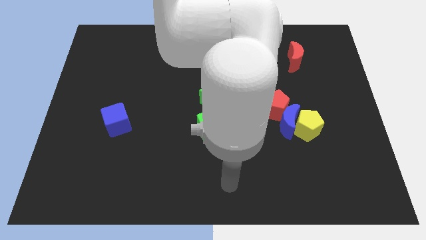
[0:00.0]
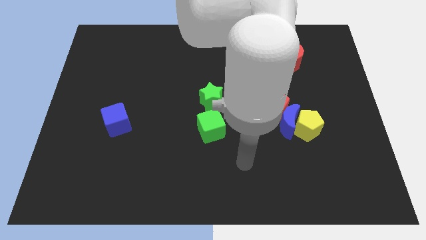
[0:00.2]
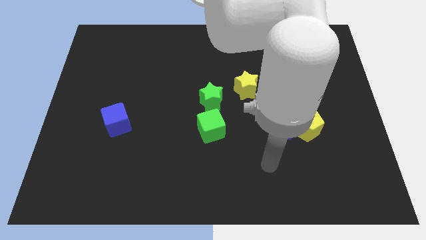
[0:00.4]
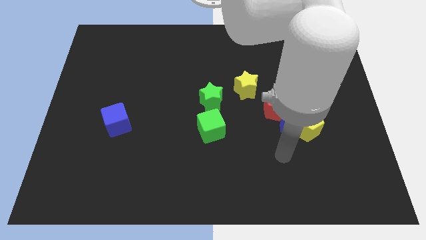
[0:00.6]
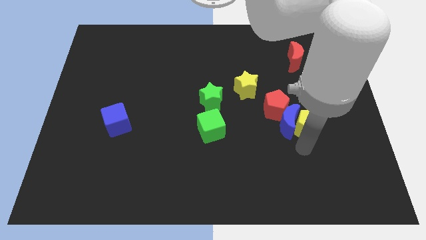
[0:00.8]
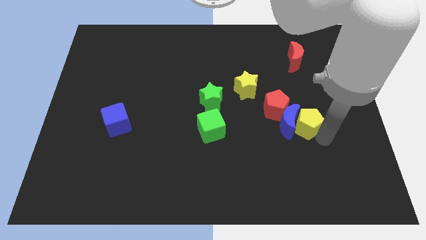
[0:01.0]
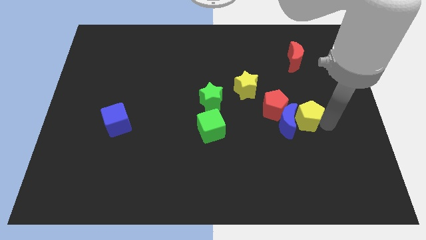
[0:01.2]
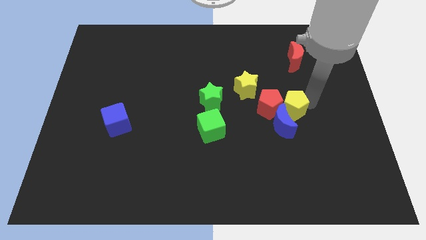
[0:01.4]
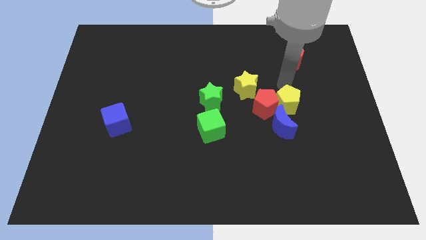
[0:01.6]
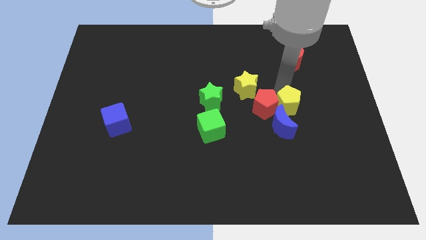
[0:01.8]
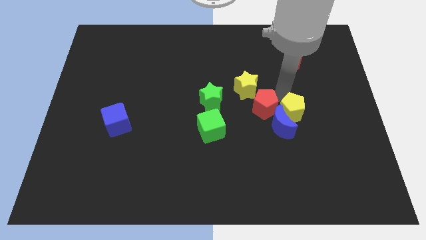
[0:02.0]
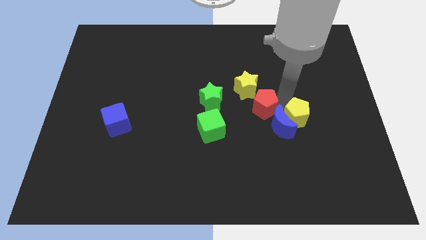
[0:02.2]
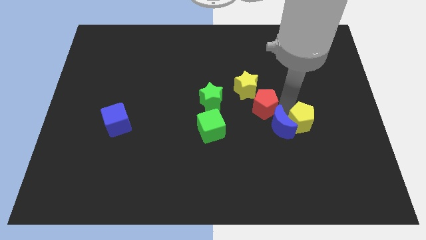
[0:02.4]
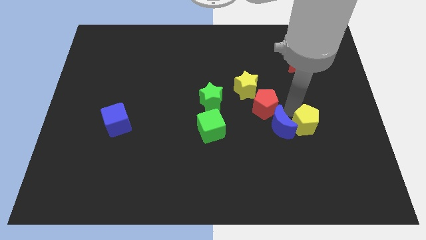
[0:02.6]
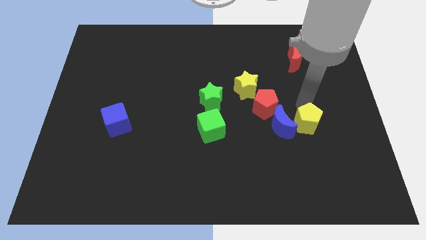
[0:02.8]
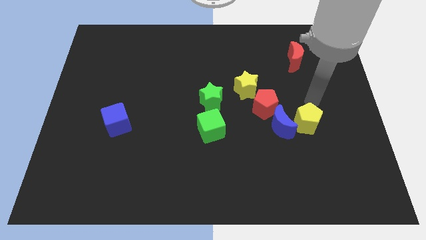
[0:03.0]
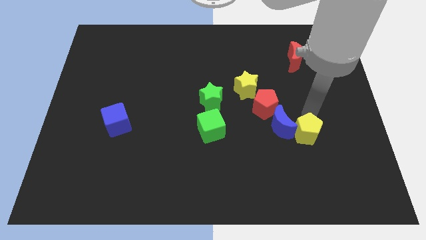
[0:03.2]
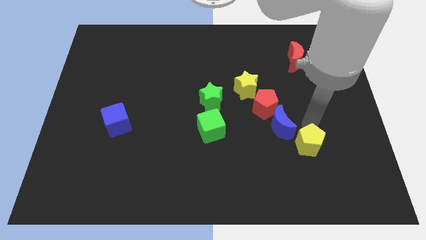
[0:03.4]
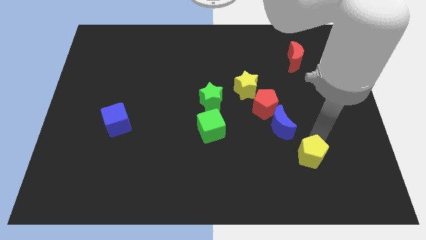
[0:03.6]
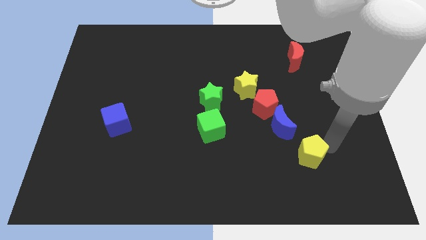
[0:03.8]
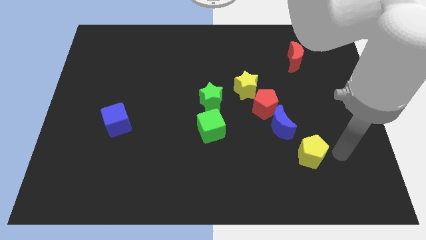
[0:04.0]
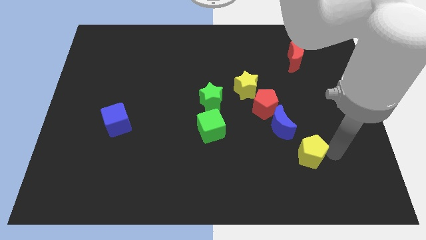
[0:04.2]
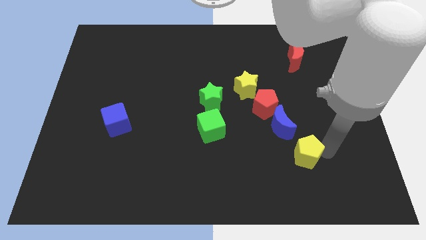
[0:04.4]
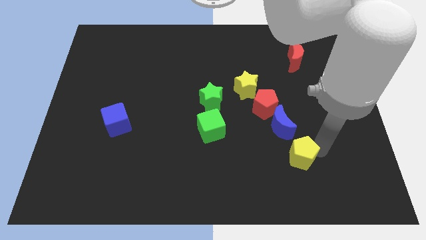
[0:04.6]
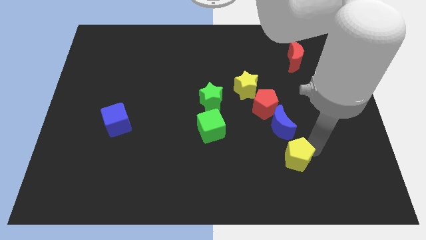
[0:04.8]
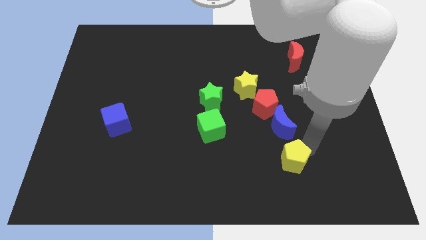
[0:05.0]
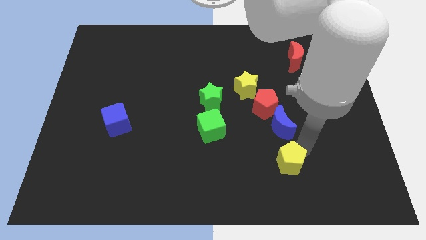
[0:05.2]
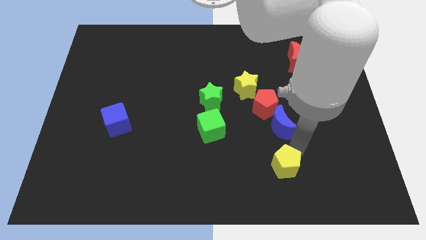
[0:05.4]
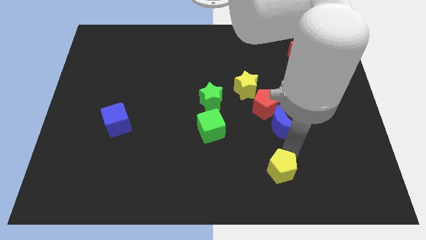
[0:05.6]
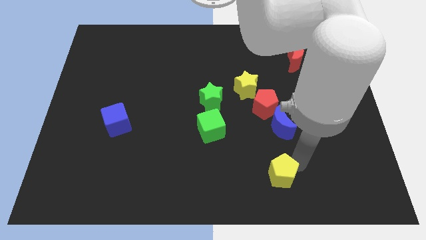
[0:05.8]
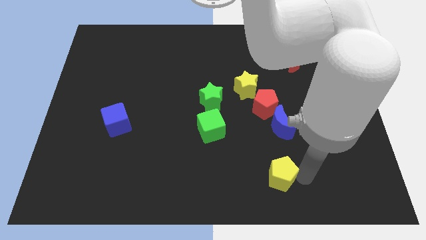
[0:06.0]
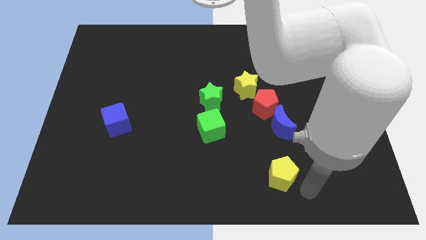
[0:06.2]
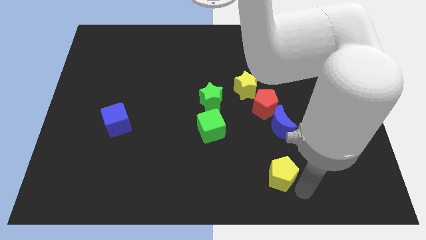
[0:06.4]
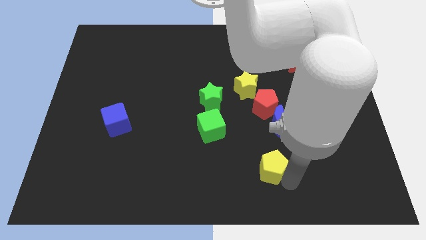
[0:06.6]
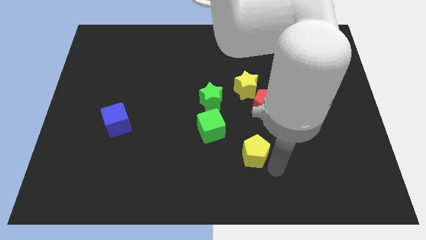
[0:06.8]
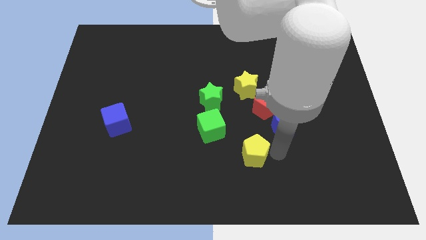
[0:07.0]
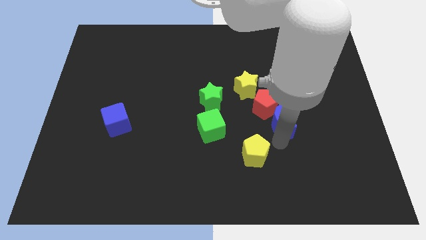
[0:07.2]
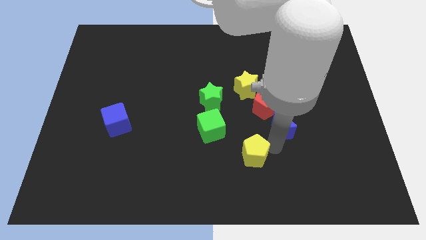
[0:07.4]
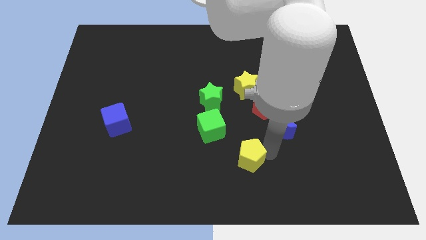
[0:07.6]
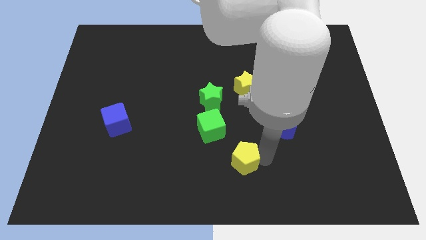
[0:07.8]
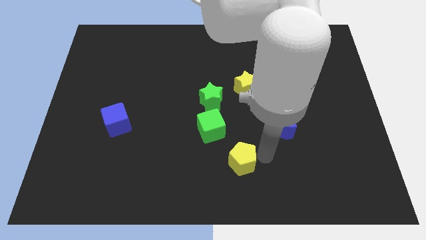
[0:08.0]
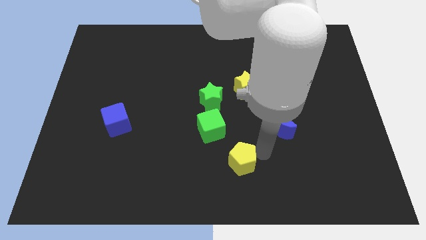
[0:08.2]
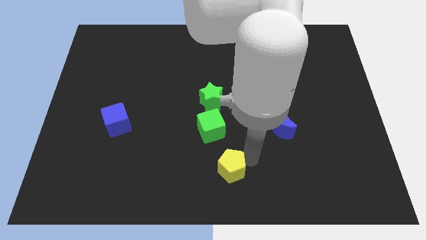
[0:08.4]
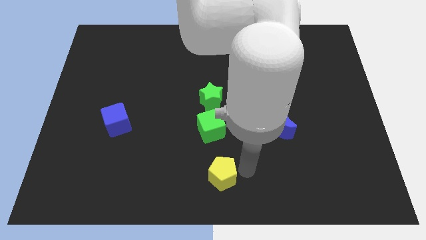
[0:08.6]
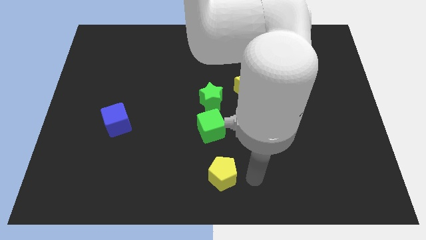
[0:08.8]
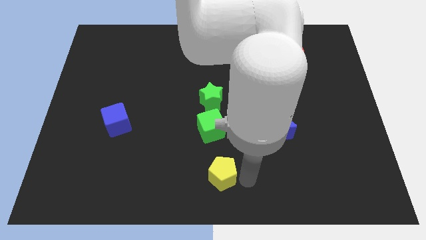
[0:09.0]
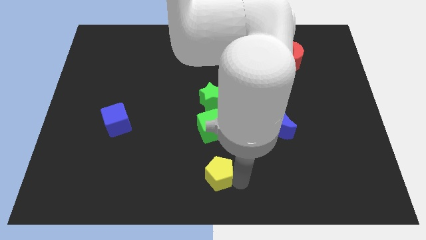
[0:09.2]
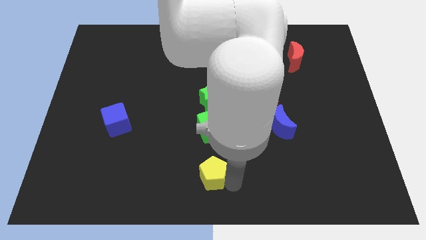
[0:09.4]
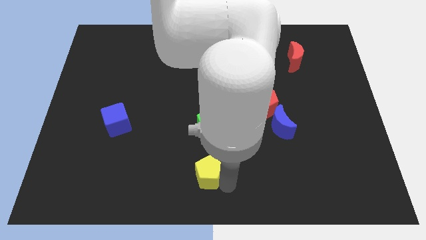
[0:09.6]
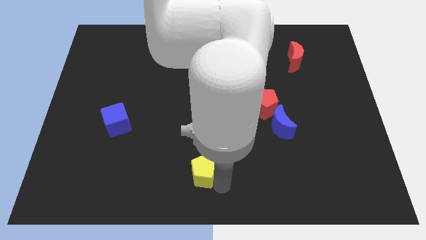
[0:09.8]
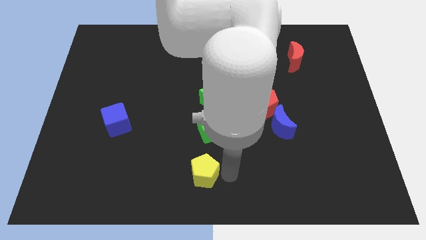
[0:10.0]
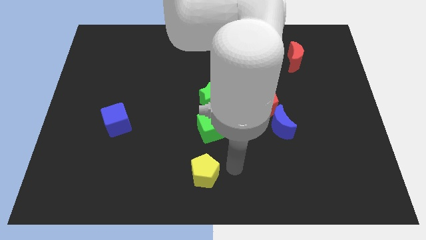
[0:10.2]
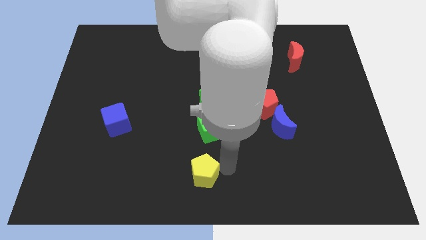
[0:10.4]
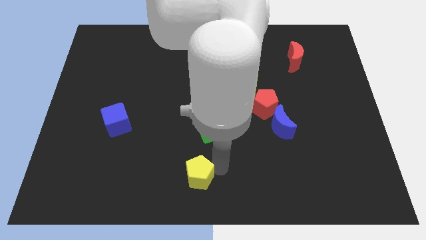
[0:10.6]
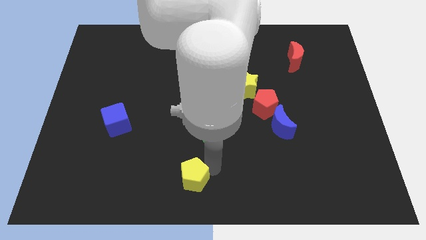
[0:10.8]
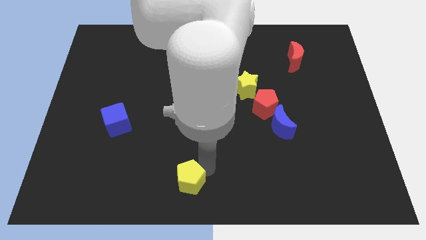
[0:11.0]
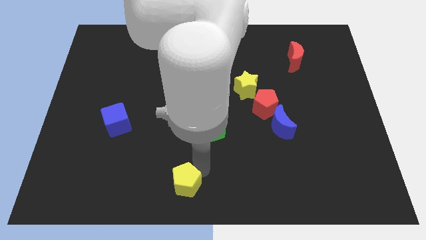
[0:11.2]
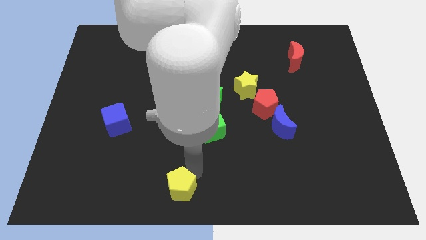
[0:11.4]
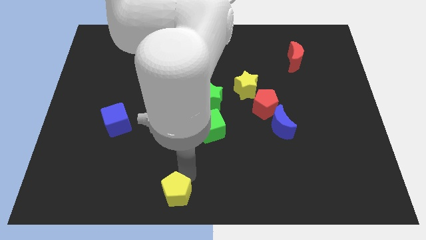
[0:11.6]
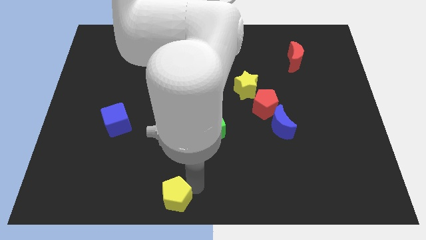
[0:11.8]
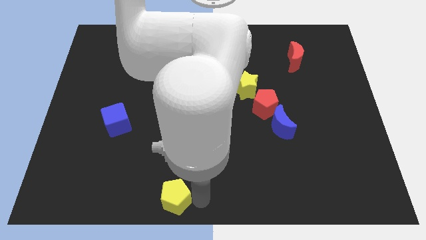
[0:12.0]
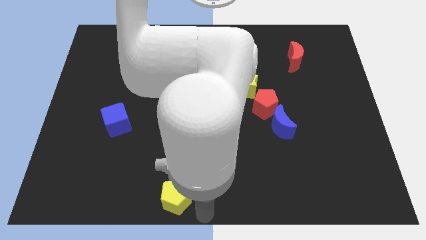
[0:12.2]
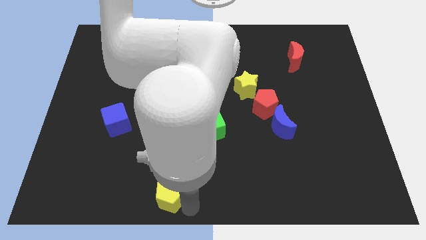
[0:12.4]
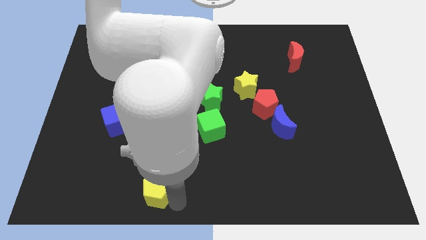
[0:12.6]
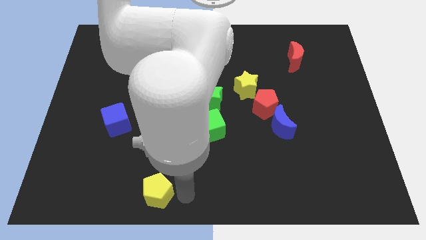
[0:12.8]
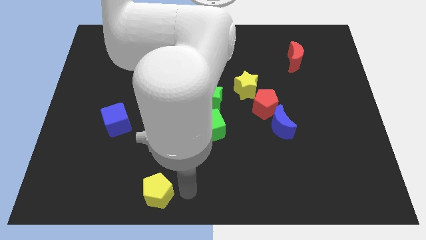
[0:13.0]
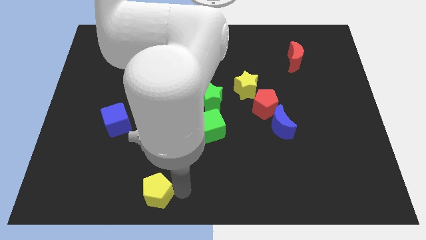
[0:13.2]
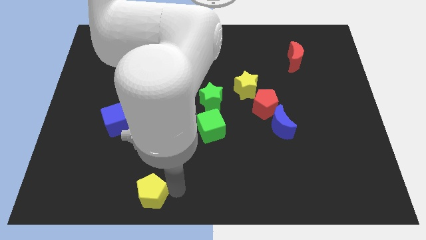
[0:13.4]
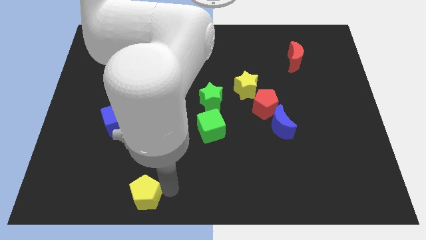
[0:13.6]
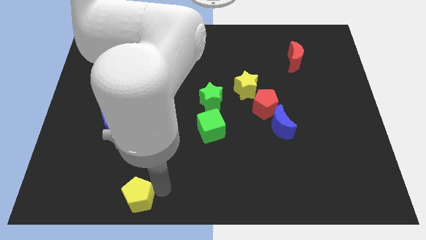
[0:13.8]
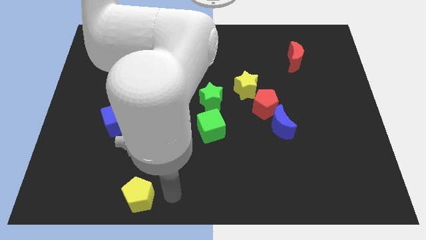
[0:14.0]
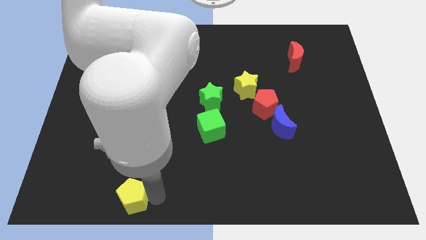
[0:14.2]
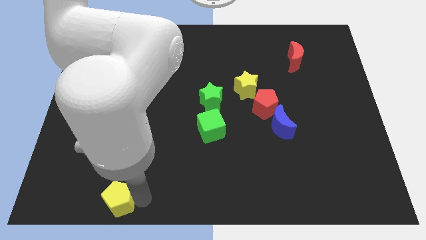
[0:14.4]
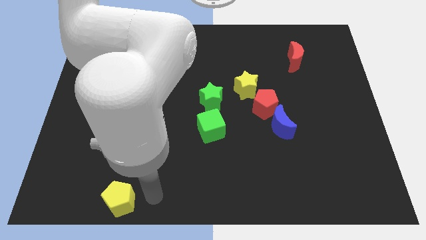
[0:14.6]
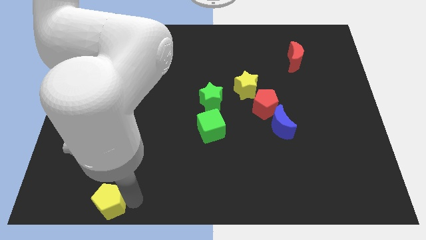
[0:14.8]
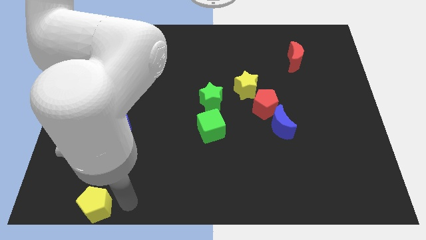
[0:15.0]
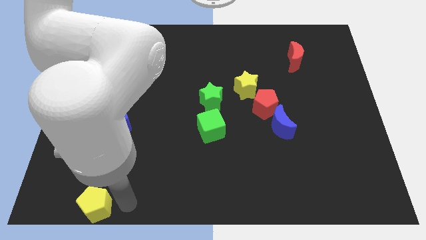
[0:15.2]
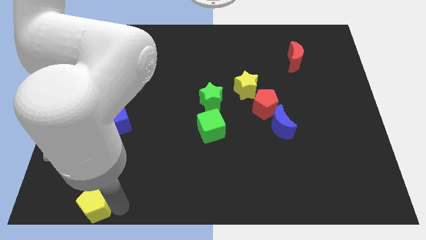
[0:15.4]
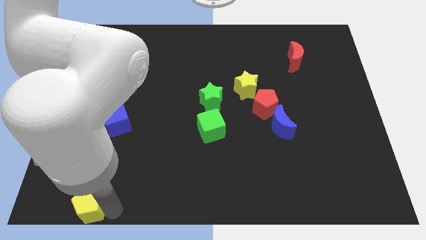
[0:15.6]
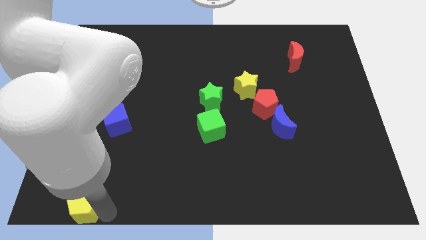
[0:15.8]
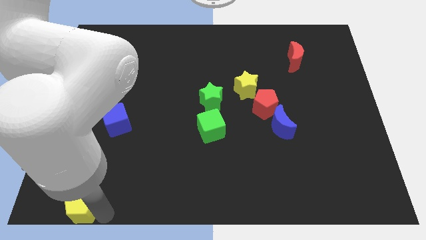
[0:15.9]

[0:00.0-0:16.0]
slide the yellow pentagon to the bottom left corner
